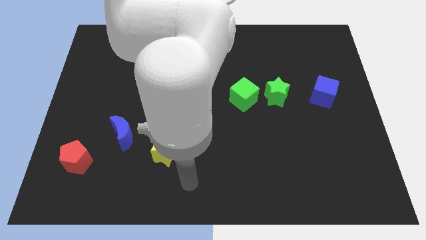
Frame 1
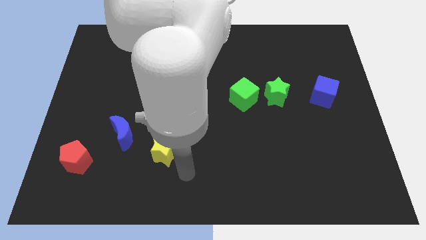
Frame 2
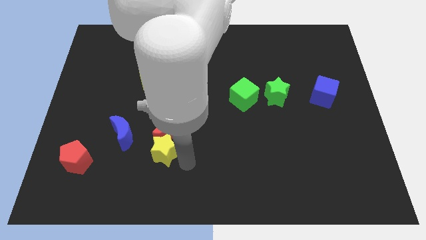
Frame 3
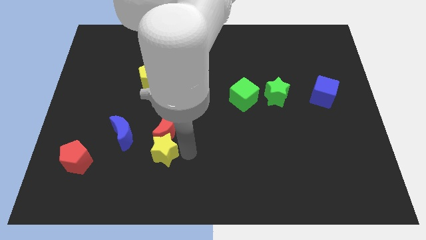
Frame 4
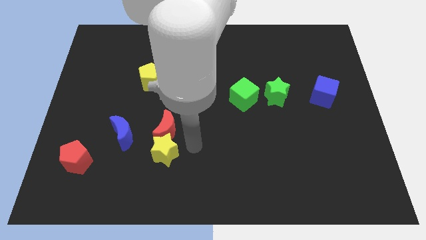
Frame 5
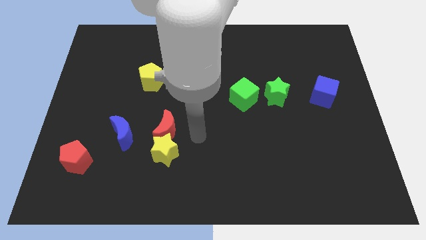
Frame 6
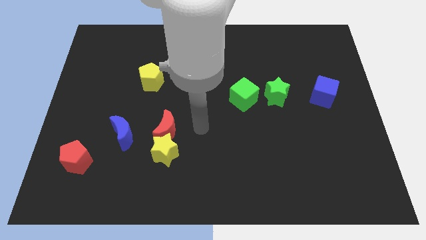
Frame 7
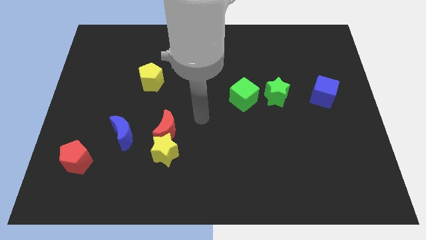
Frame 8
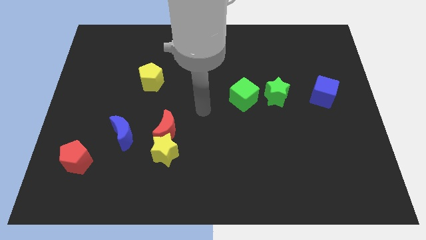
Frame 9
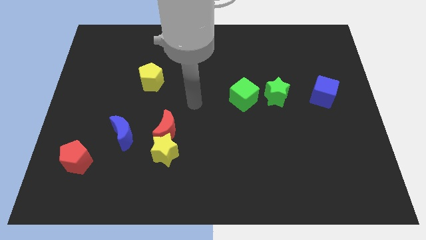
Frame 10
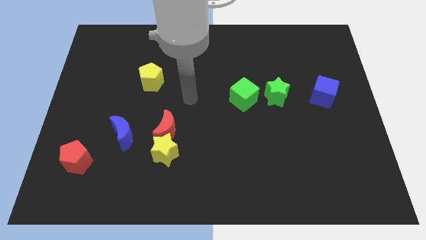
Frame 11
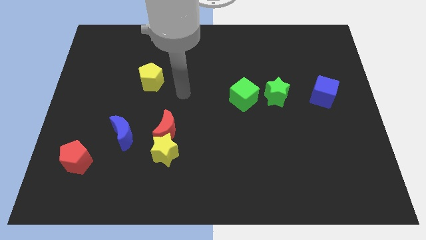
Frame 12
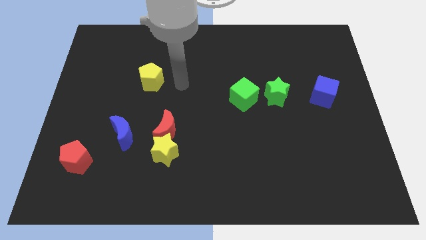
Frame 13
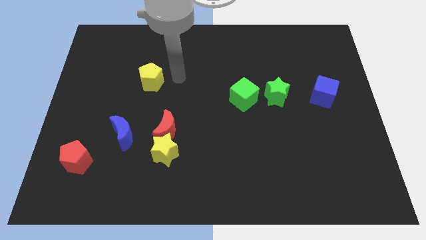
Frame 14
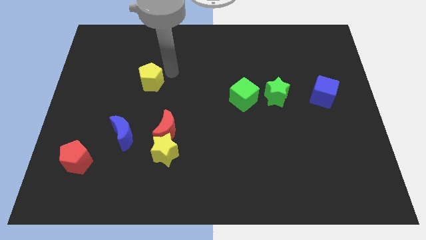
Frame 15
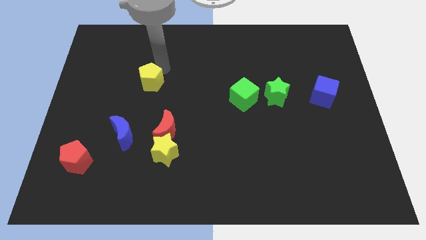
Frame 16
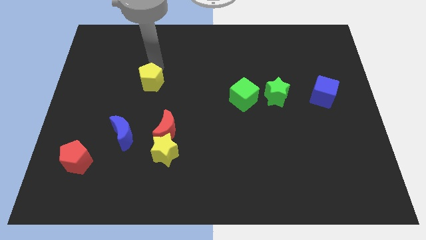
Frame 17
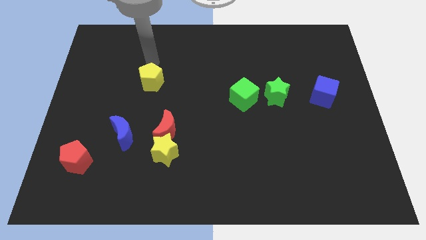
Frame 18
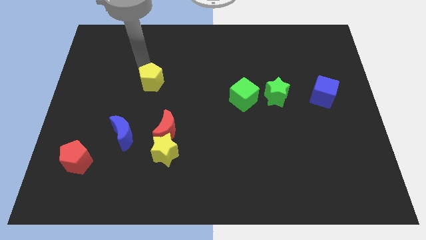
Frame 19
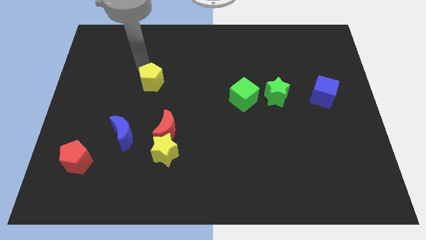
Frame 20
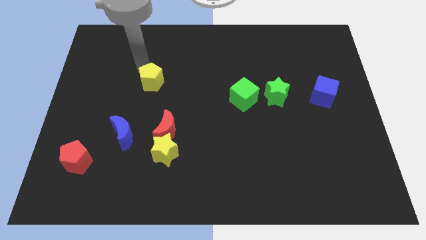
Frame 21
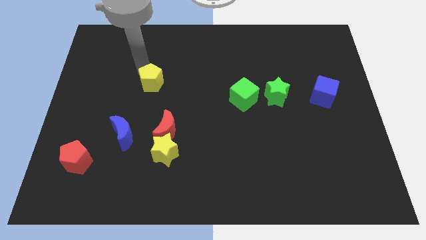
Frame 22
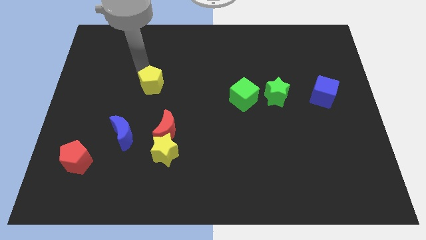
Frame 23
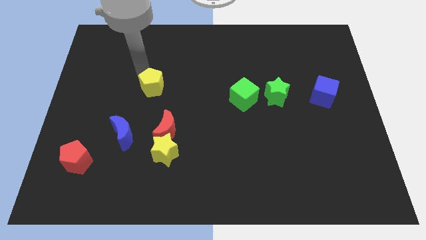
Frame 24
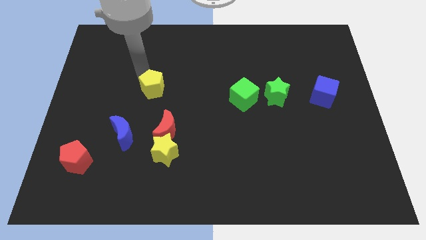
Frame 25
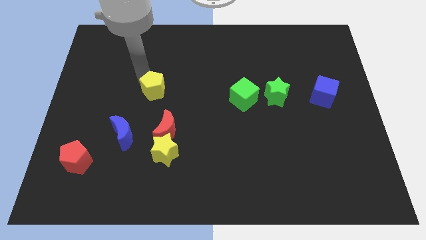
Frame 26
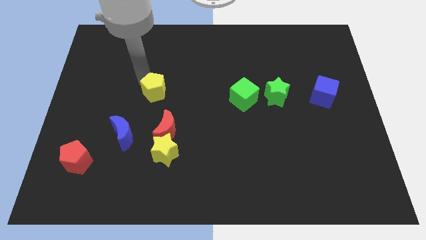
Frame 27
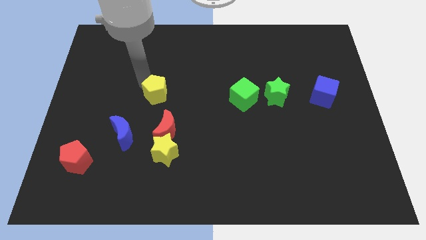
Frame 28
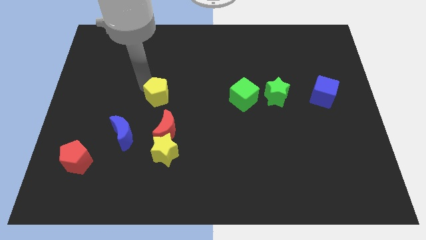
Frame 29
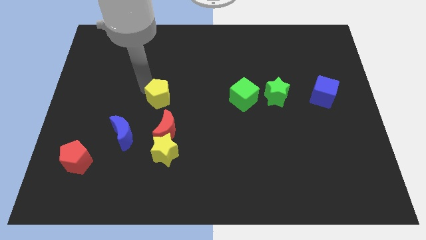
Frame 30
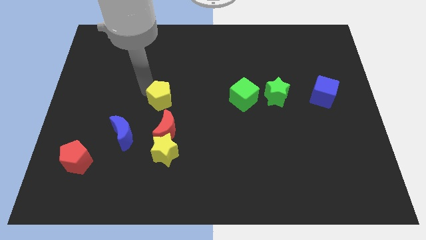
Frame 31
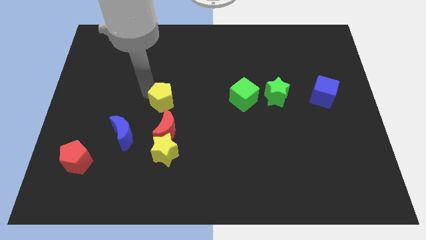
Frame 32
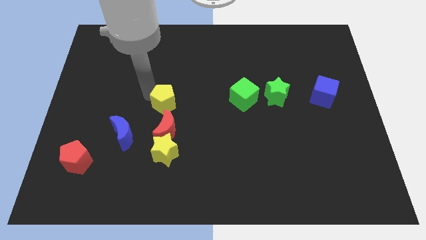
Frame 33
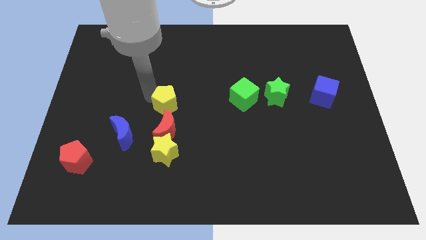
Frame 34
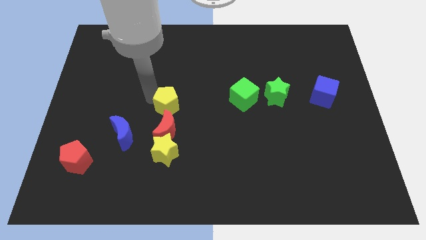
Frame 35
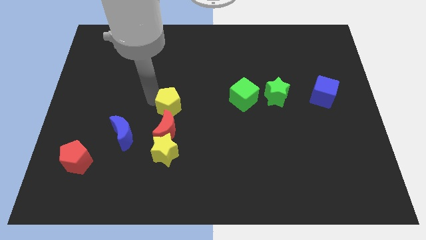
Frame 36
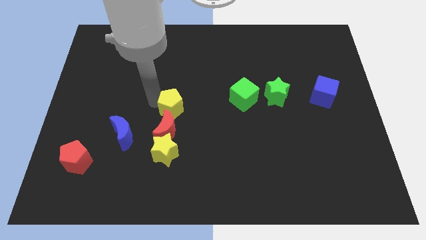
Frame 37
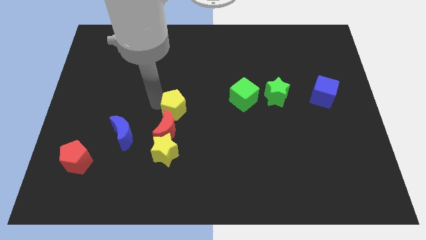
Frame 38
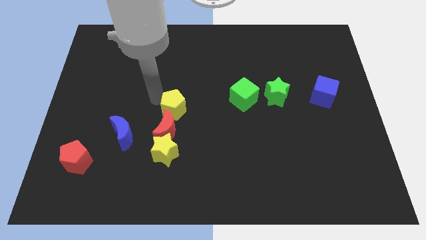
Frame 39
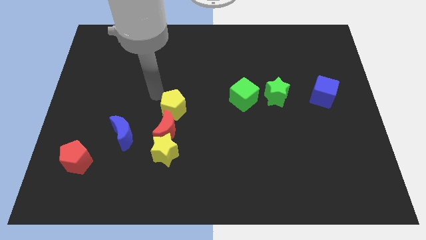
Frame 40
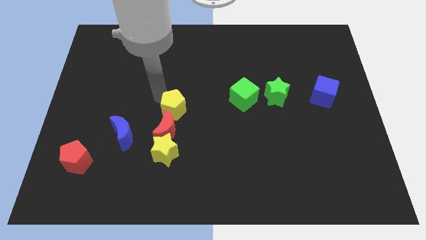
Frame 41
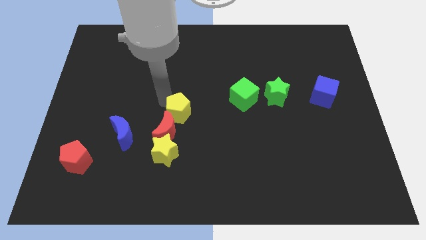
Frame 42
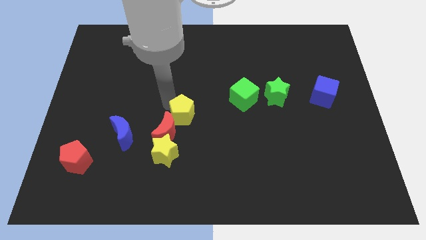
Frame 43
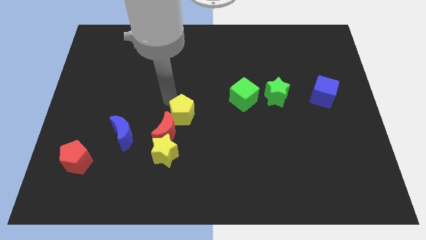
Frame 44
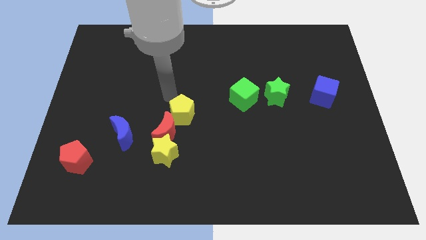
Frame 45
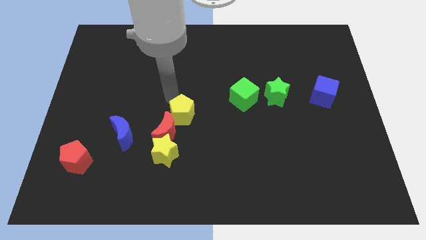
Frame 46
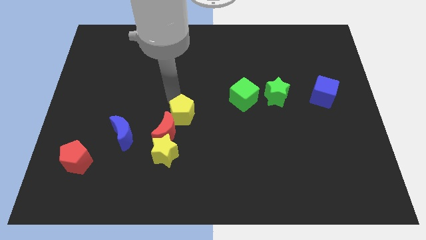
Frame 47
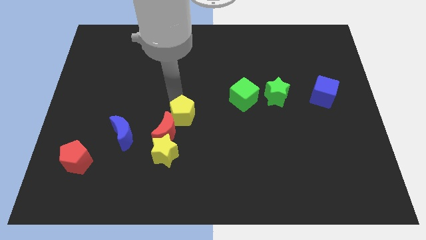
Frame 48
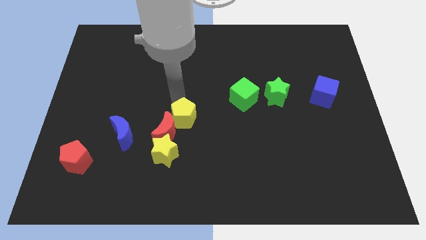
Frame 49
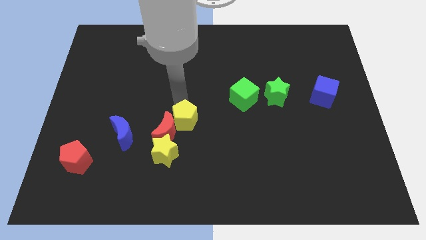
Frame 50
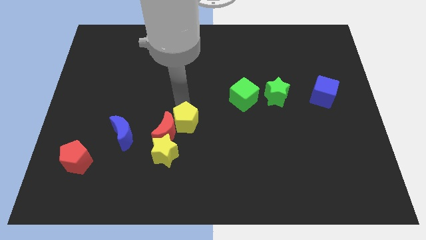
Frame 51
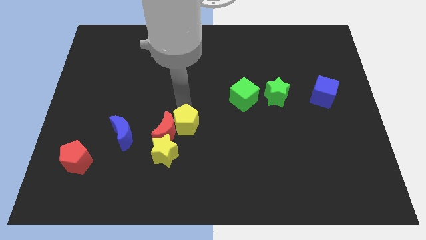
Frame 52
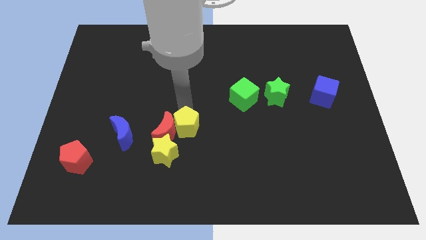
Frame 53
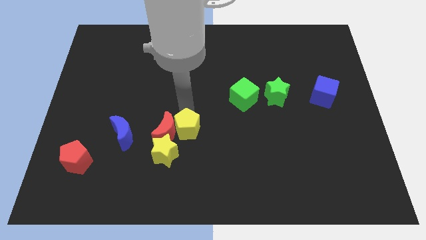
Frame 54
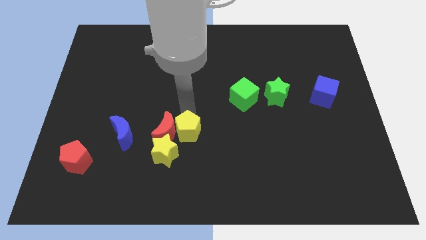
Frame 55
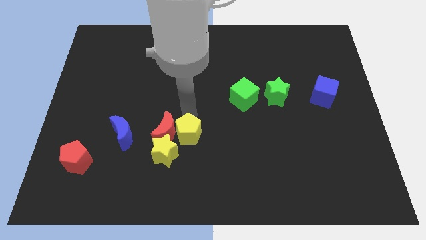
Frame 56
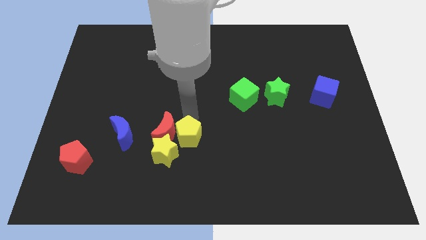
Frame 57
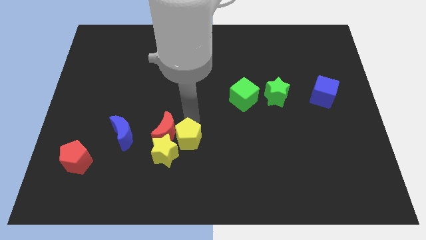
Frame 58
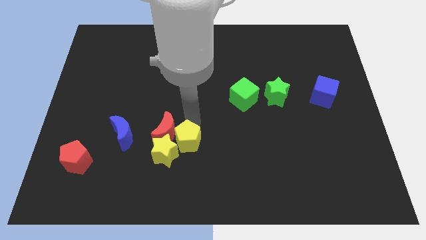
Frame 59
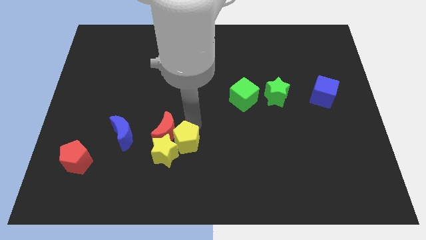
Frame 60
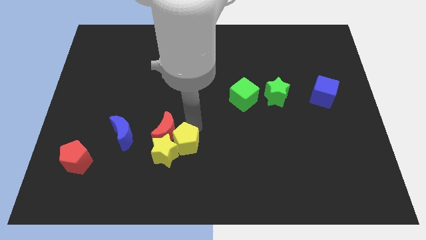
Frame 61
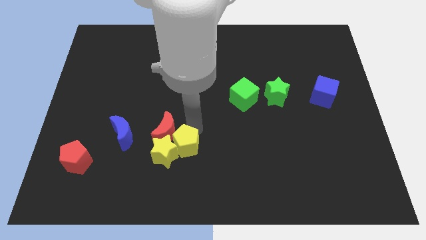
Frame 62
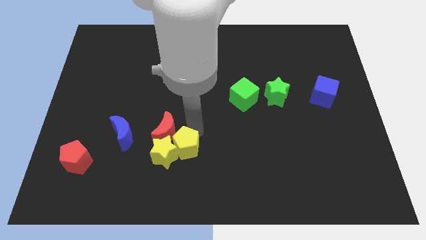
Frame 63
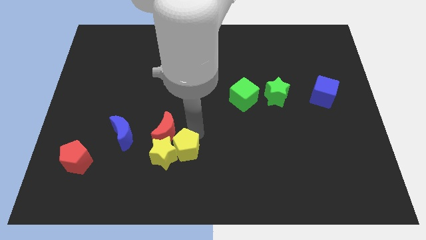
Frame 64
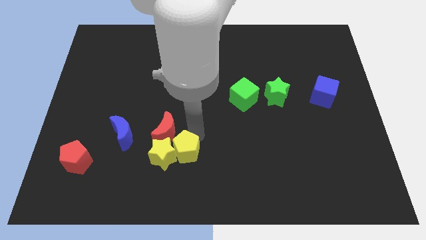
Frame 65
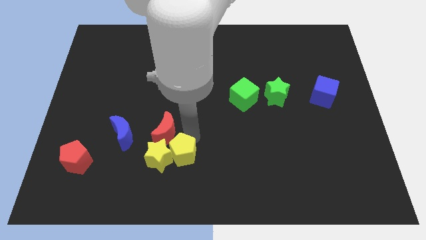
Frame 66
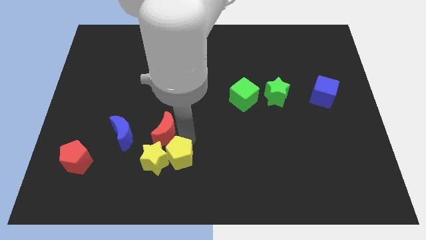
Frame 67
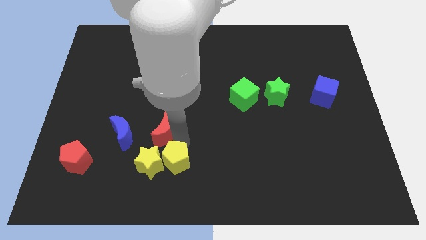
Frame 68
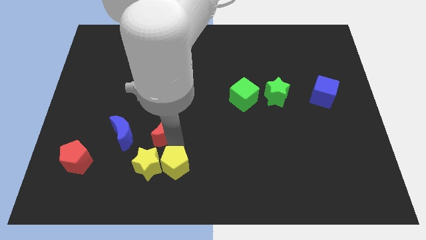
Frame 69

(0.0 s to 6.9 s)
slide the yellow pentagon to the bottom side

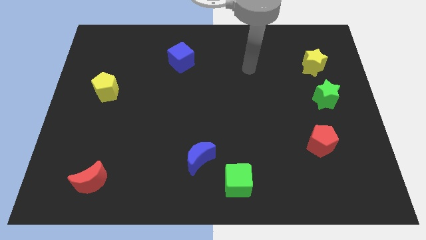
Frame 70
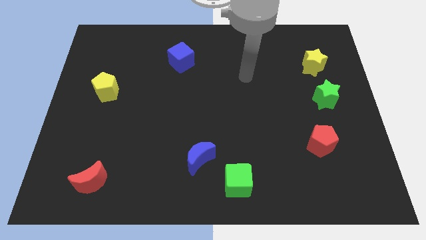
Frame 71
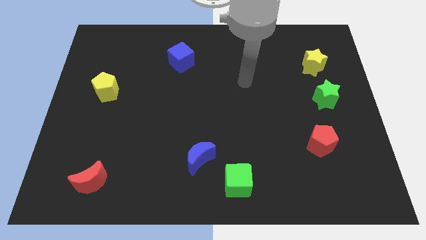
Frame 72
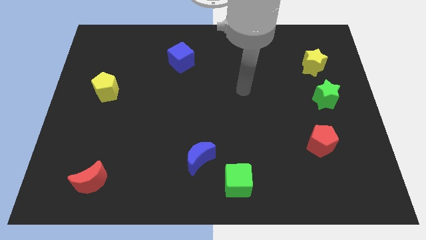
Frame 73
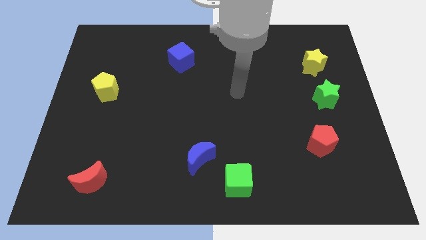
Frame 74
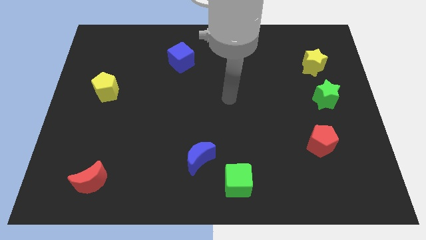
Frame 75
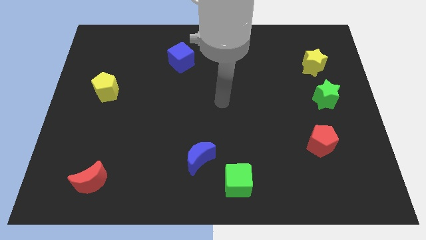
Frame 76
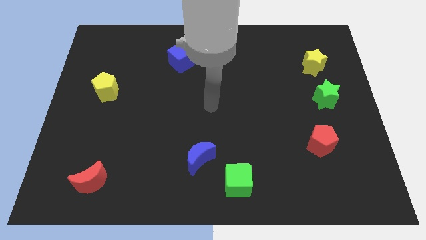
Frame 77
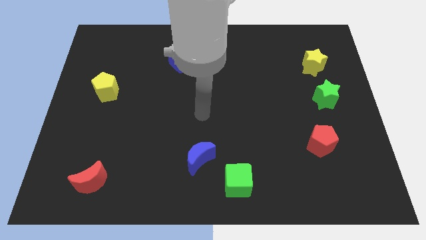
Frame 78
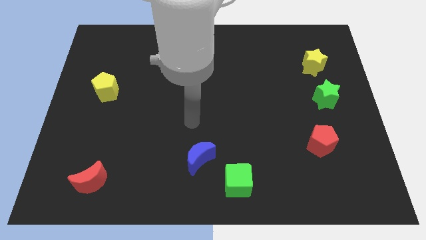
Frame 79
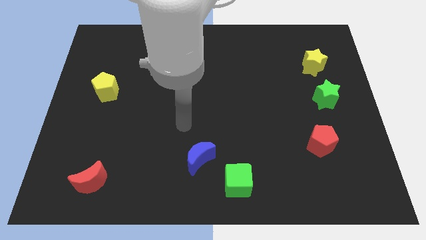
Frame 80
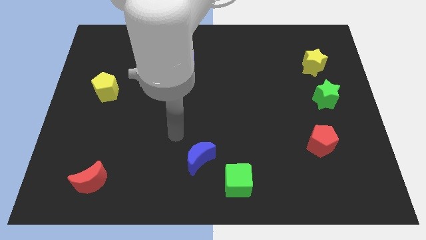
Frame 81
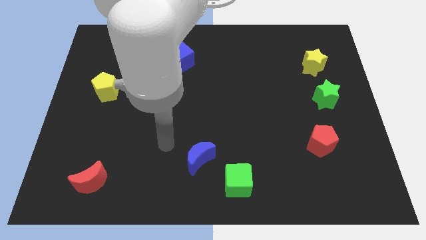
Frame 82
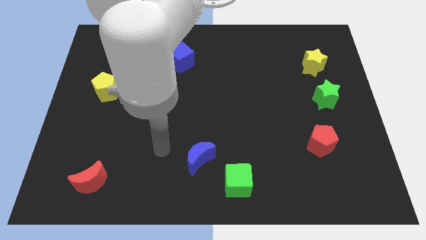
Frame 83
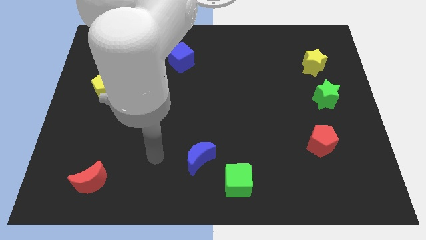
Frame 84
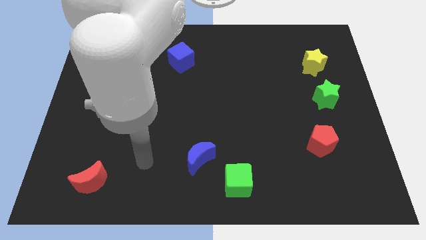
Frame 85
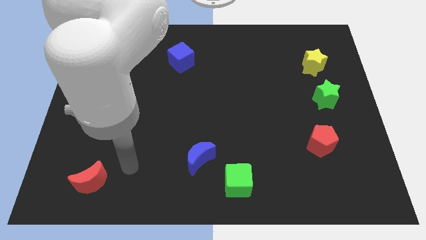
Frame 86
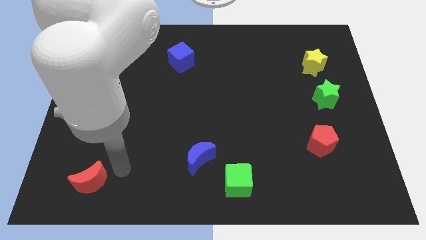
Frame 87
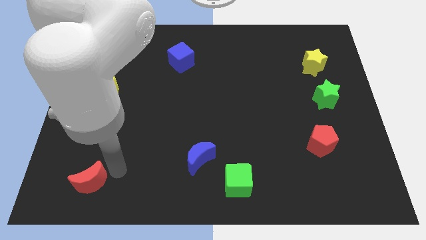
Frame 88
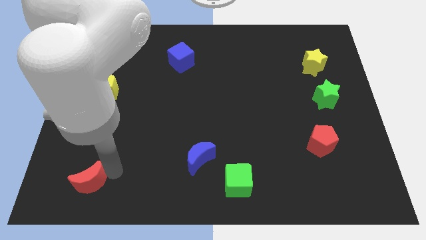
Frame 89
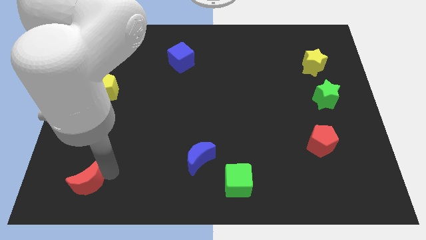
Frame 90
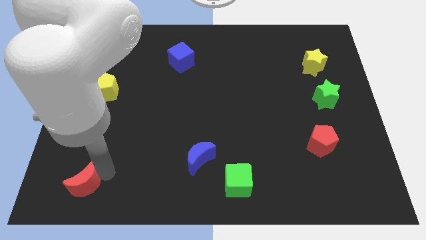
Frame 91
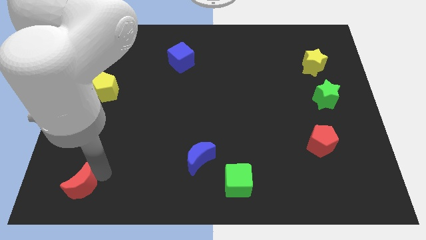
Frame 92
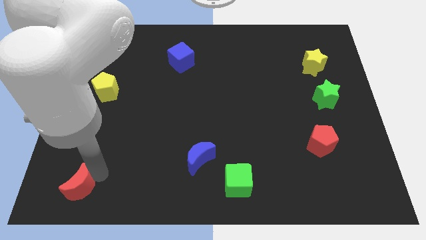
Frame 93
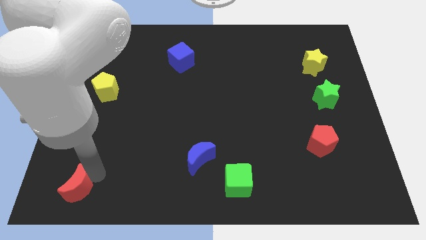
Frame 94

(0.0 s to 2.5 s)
move the red moon to the bottom left
